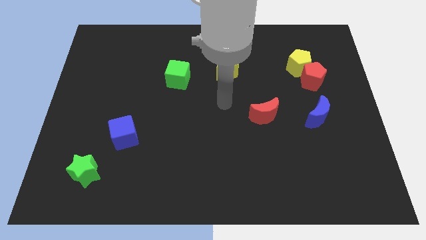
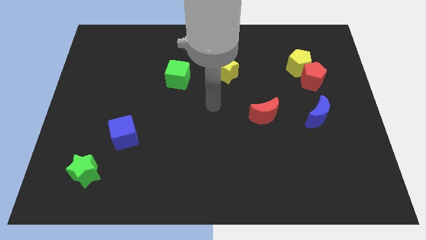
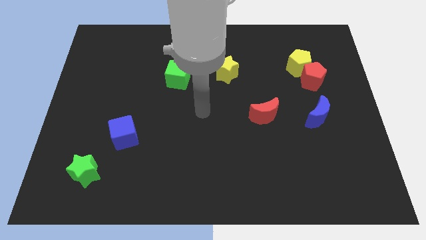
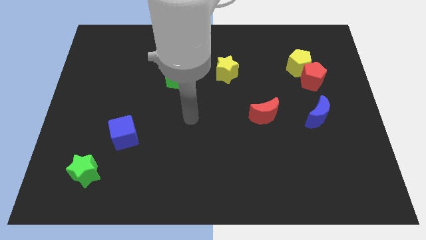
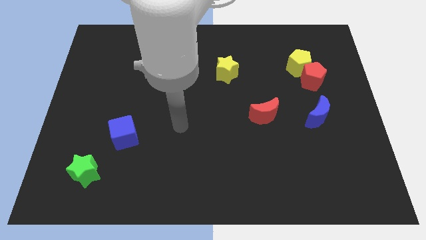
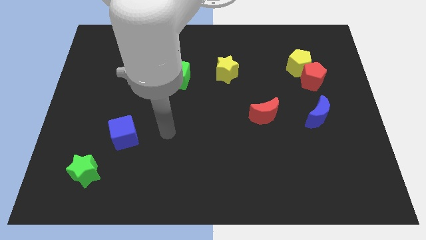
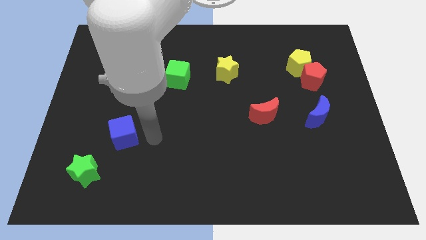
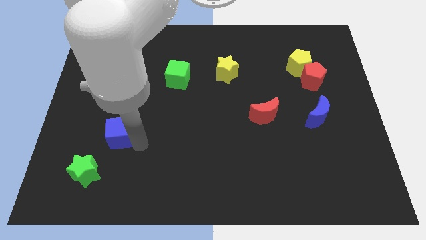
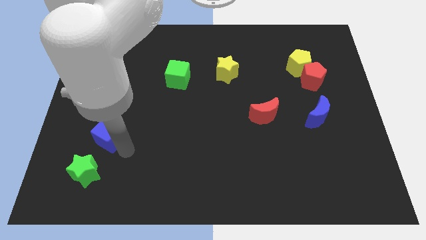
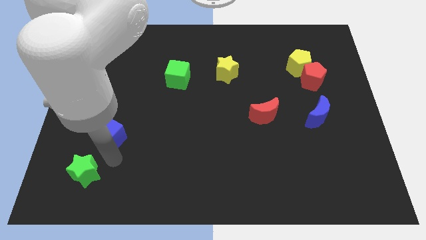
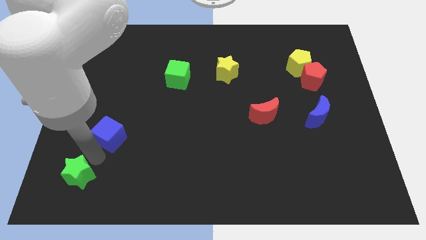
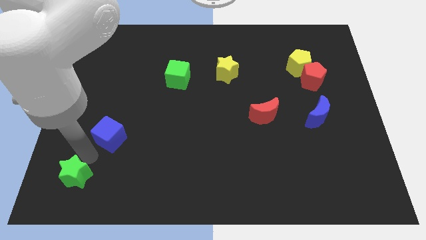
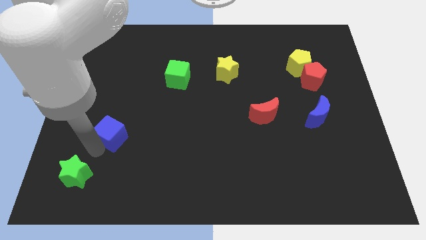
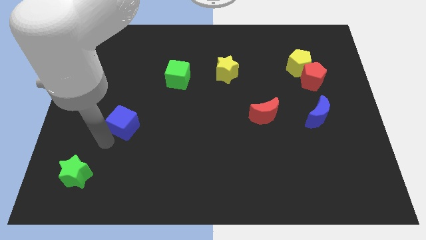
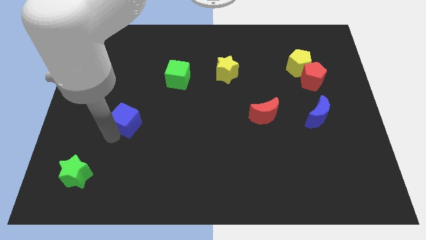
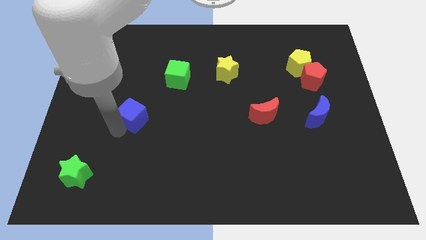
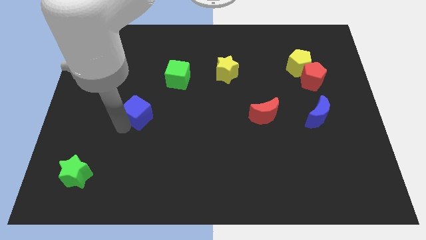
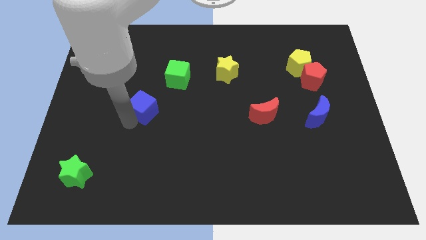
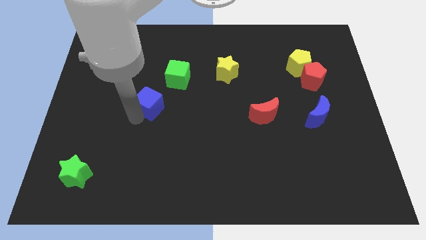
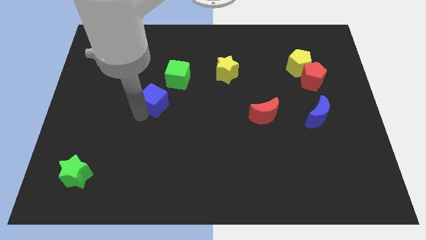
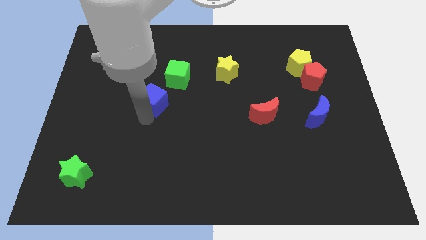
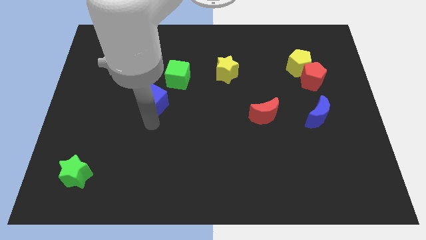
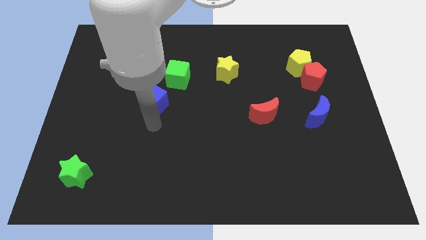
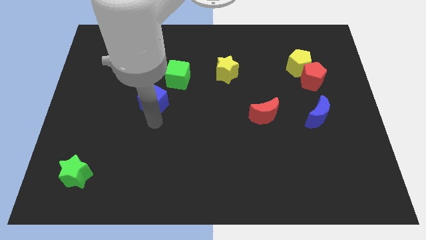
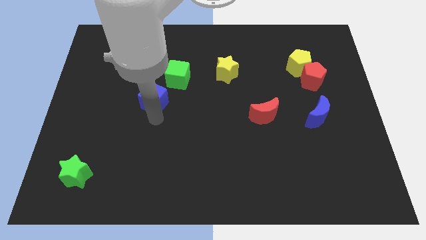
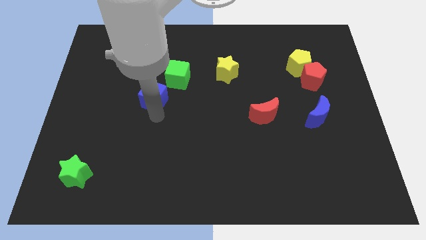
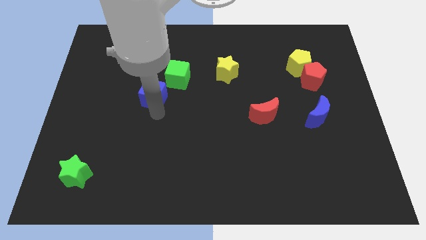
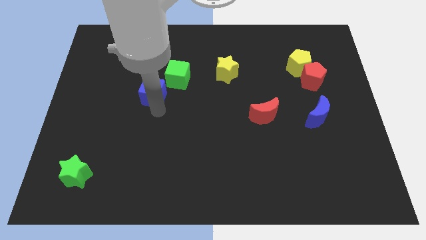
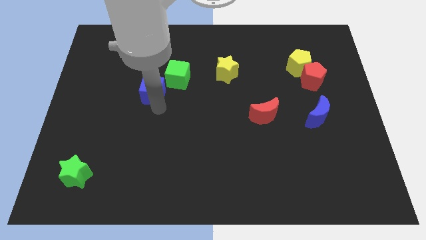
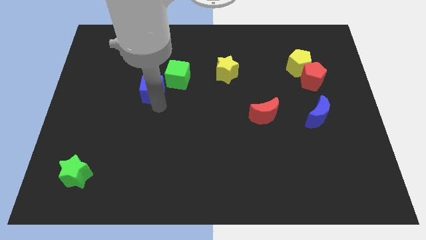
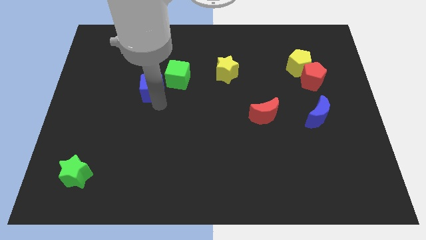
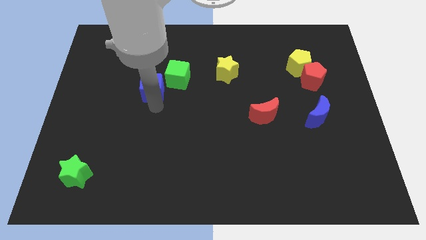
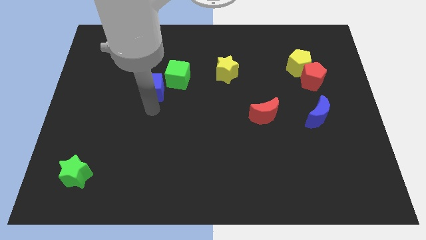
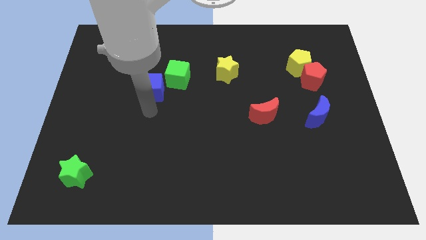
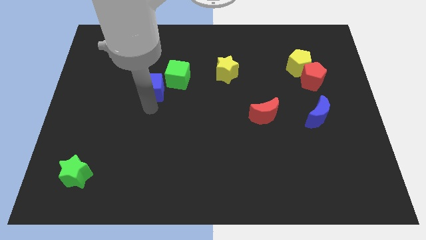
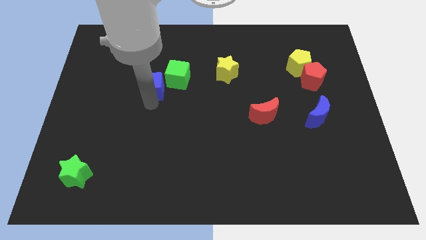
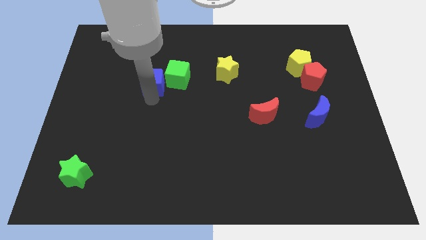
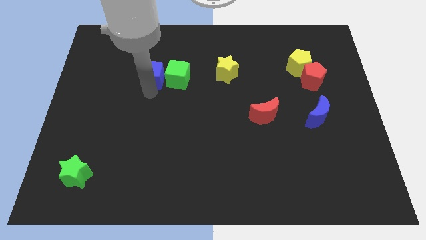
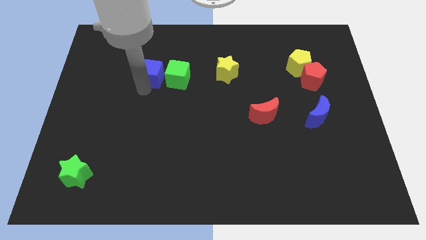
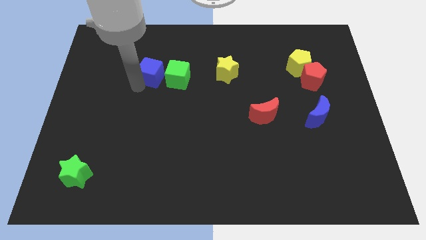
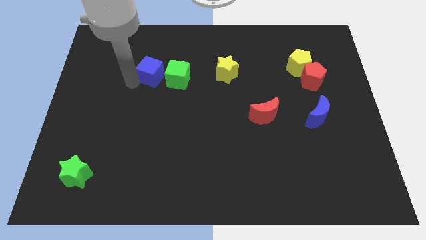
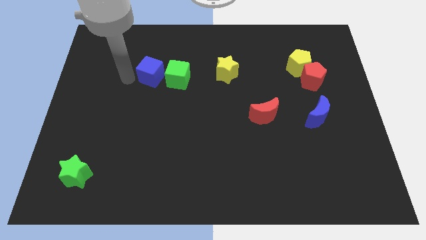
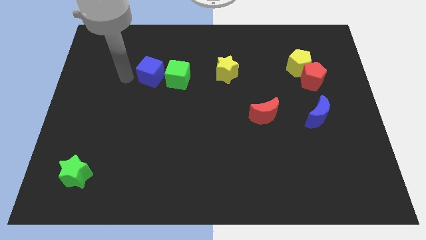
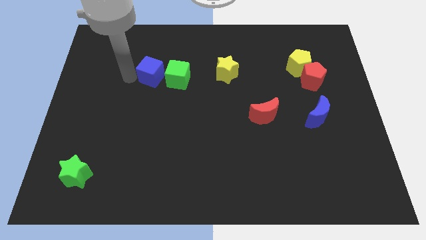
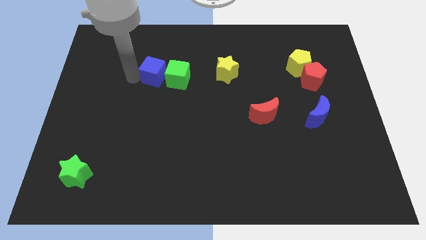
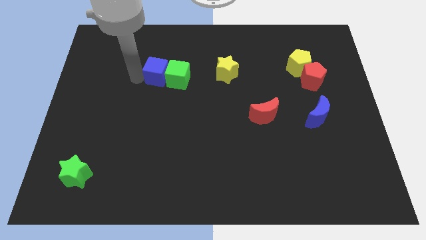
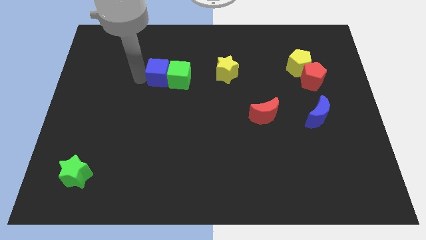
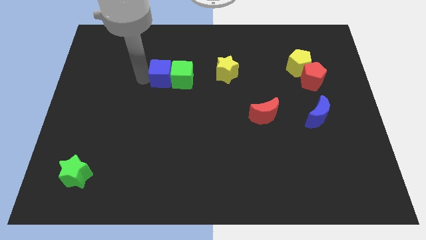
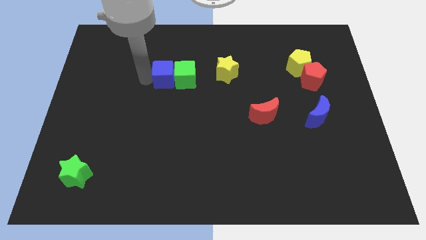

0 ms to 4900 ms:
slide the blue cube left of the yellow star

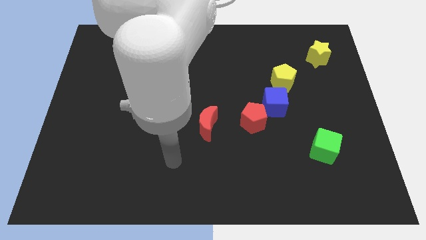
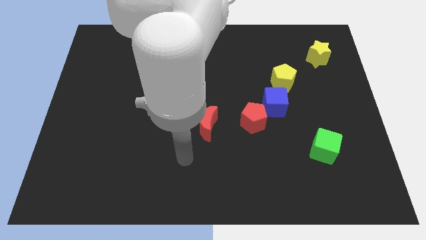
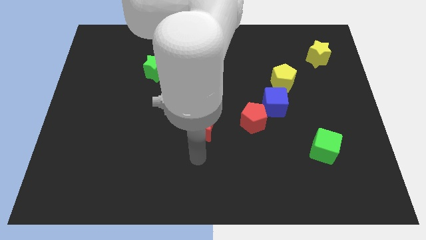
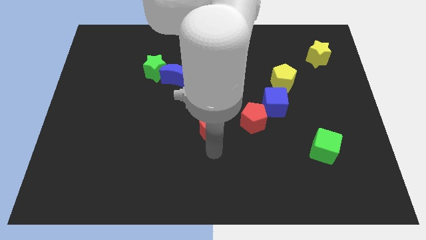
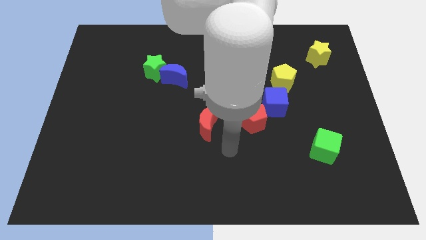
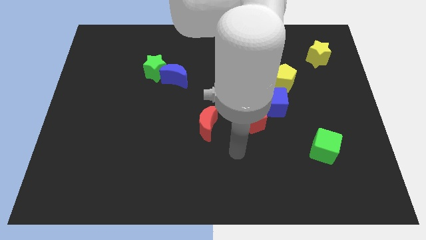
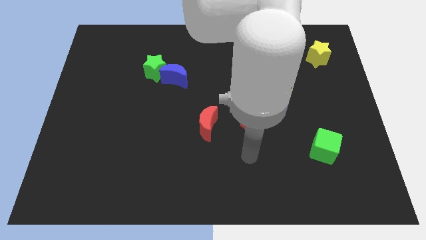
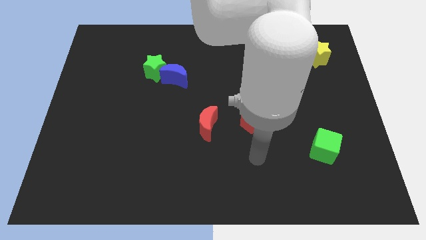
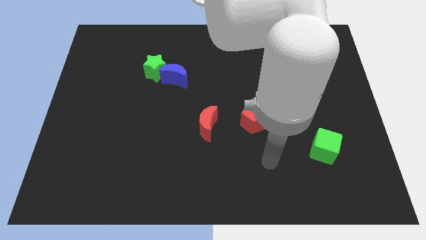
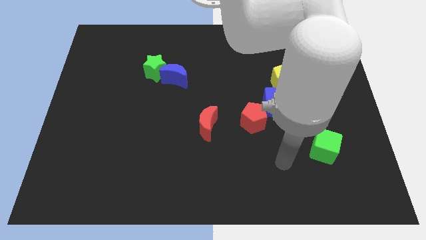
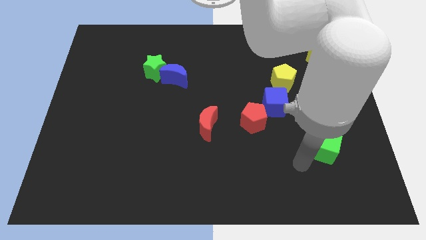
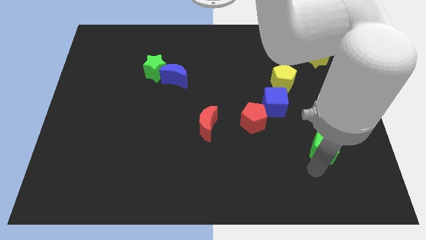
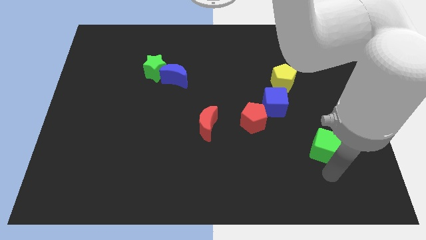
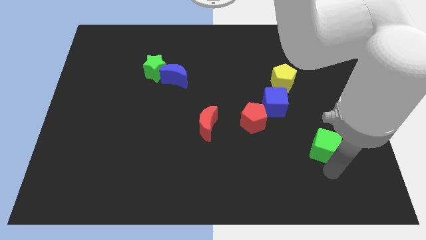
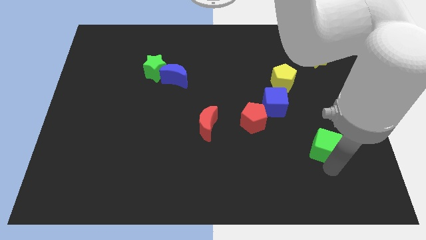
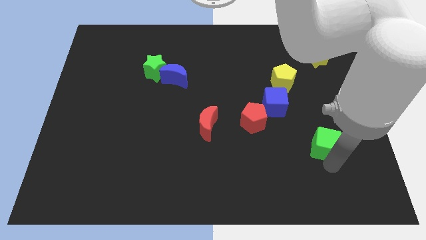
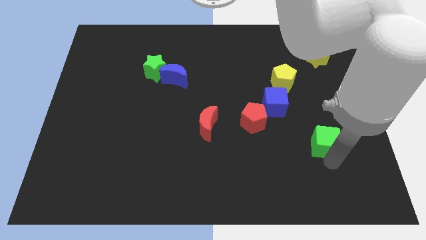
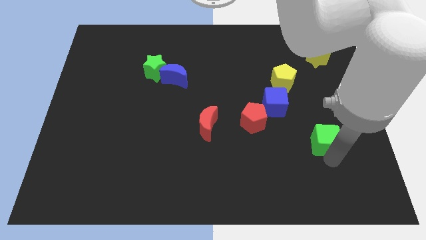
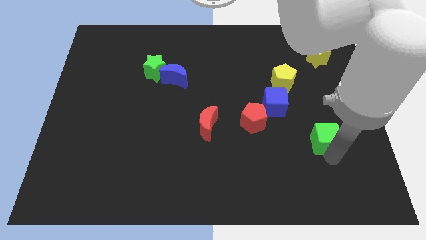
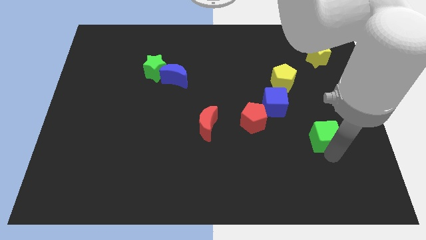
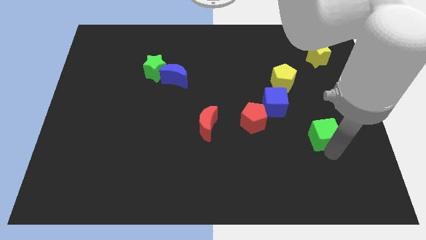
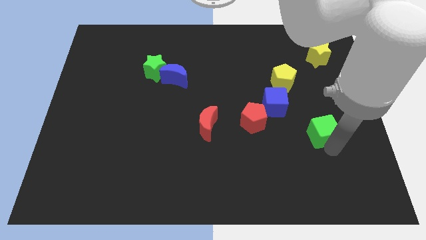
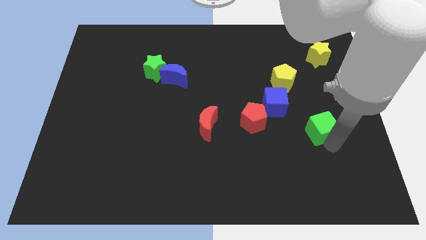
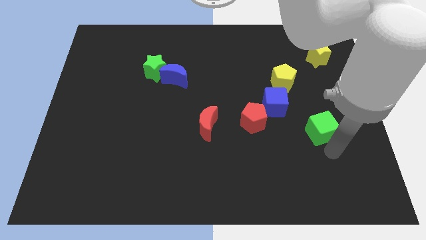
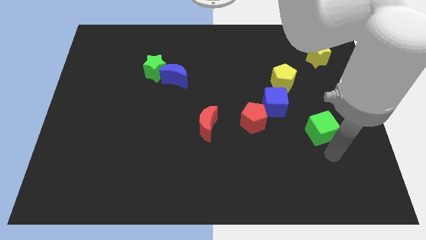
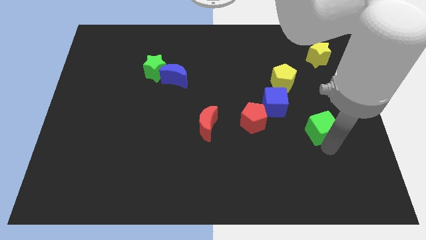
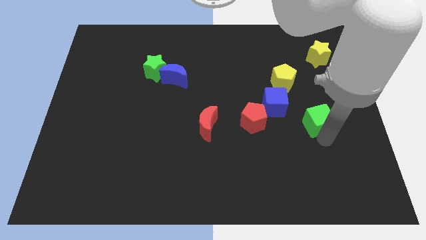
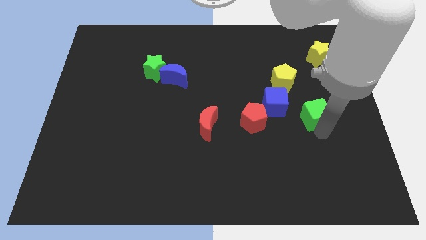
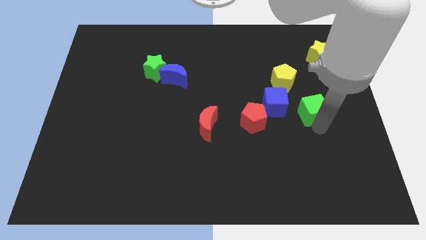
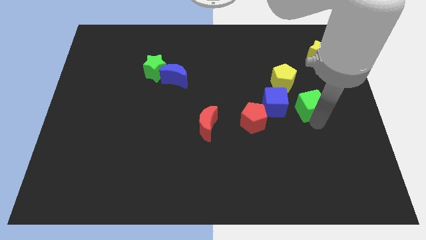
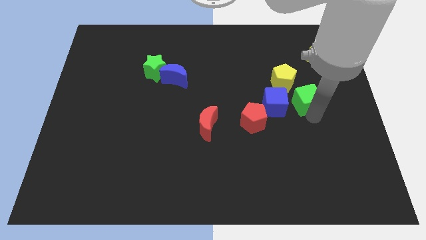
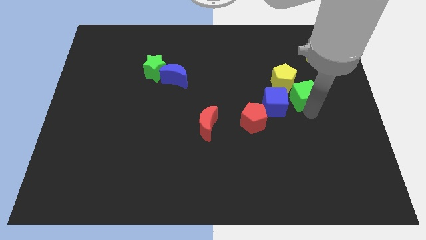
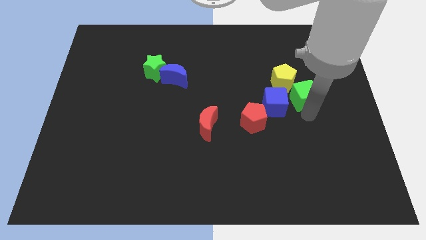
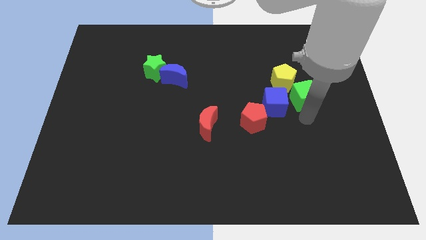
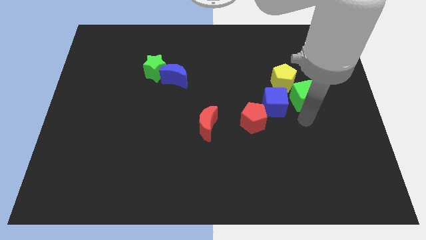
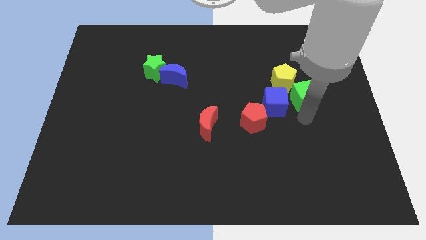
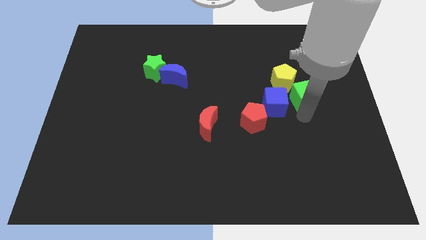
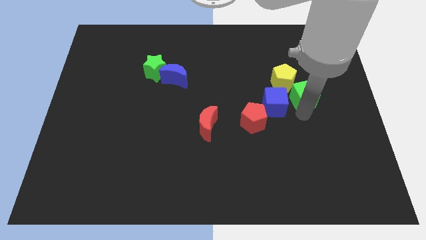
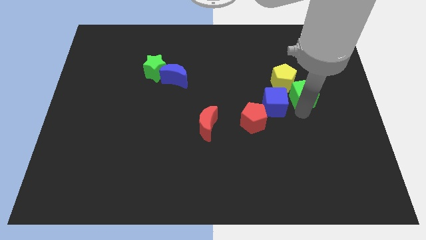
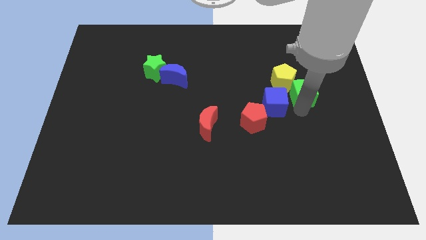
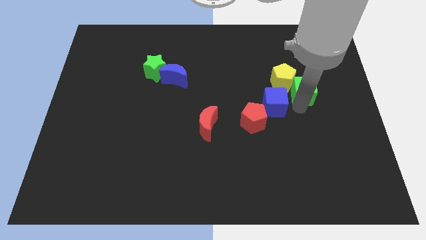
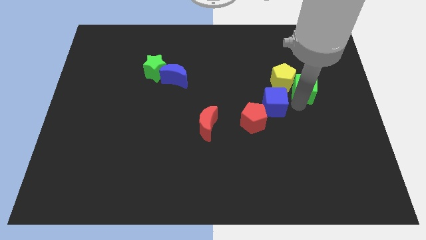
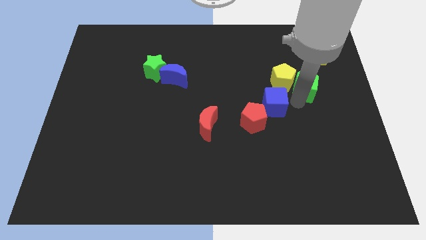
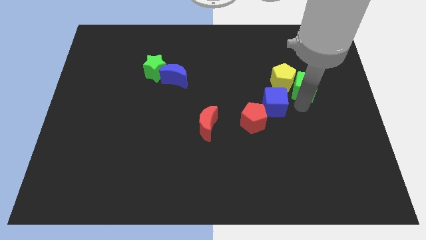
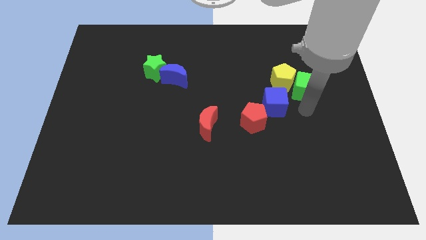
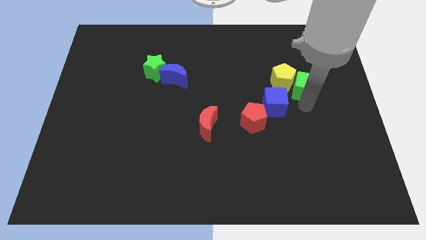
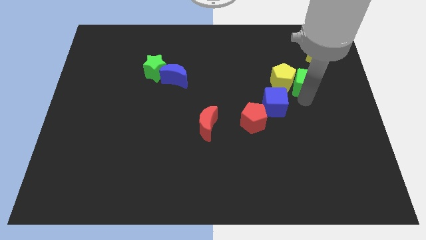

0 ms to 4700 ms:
put the green cube to the bottom left side of the yellow star
